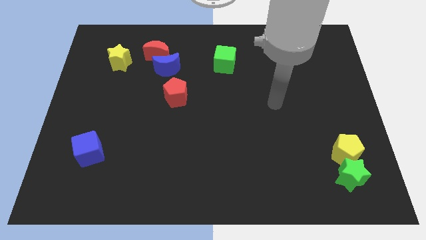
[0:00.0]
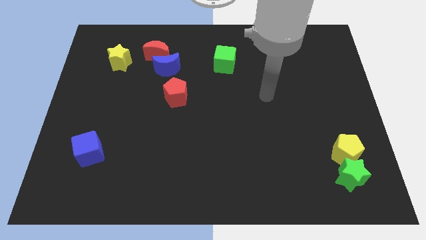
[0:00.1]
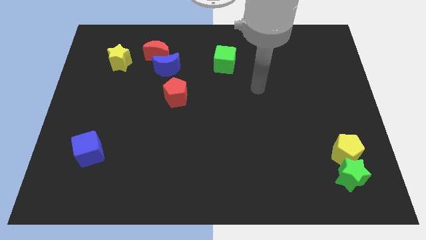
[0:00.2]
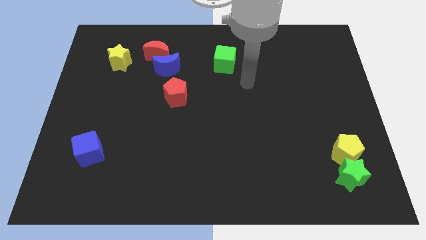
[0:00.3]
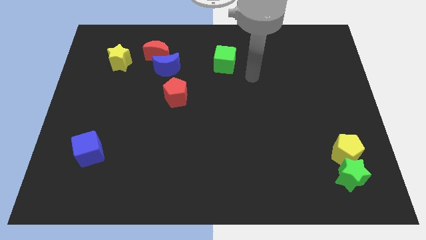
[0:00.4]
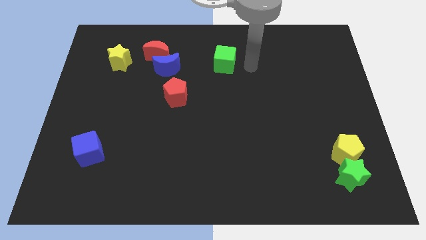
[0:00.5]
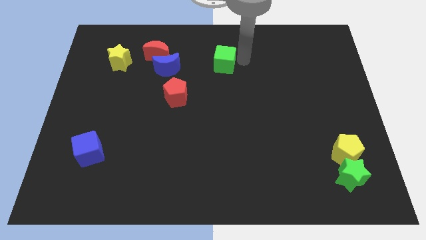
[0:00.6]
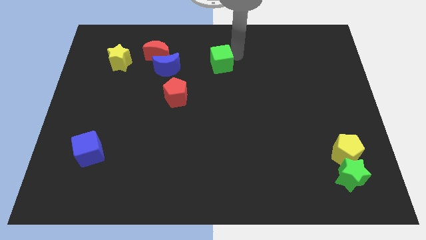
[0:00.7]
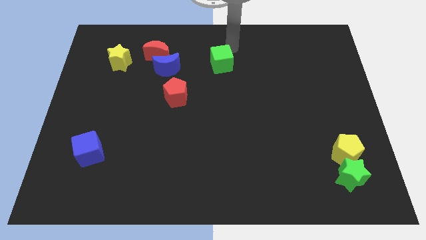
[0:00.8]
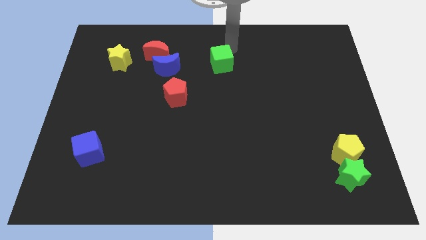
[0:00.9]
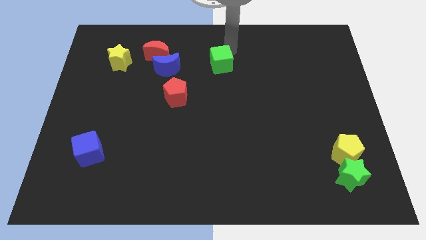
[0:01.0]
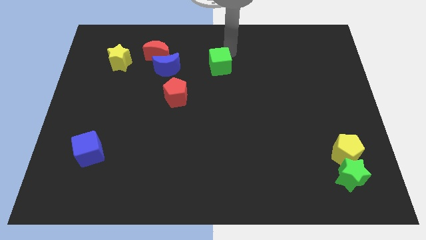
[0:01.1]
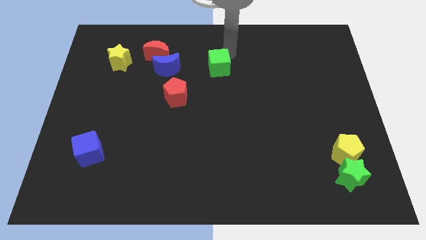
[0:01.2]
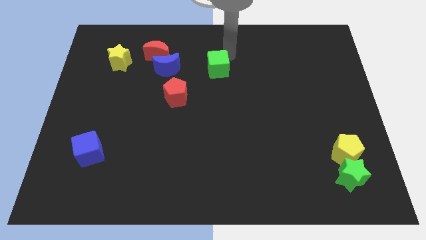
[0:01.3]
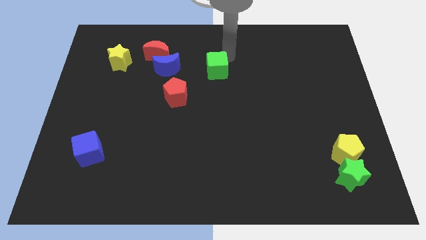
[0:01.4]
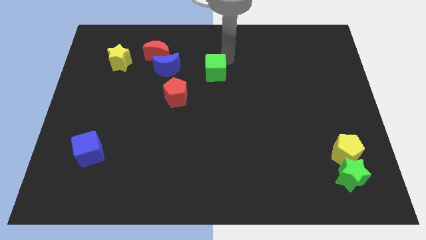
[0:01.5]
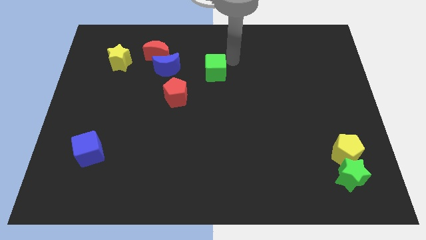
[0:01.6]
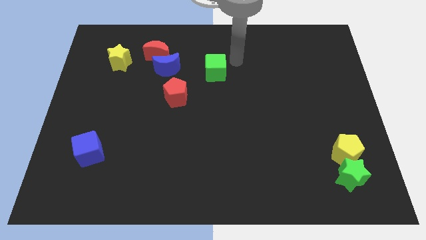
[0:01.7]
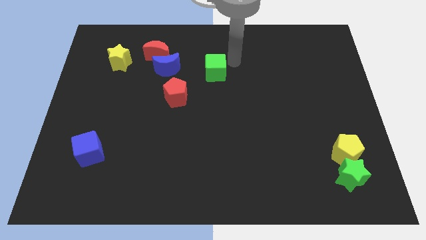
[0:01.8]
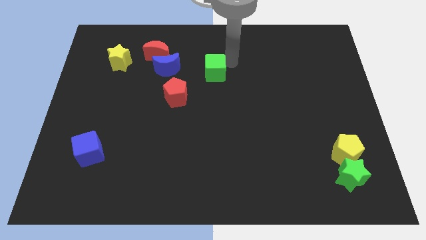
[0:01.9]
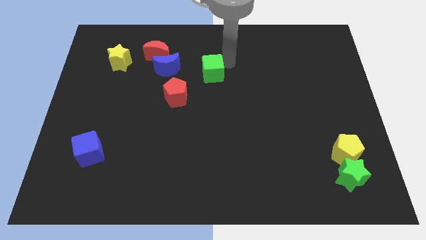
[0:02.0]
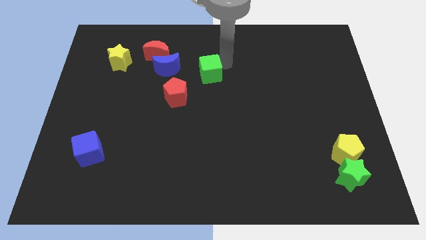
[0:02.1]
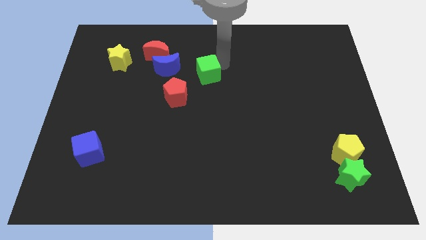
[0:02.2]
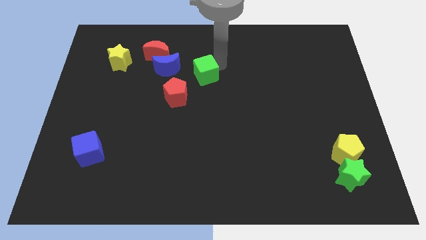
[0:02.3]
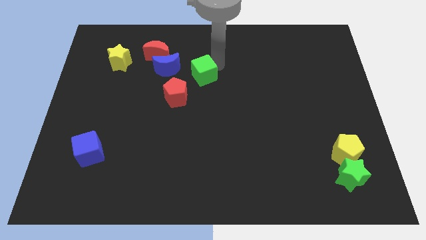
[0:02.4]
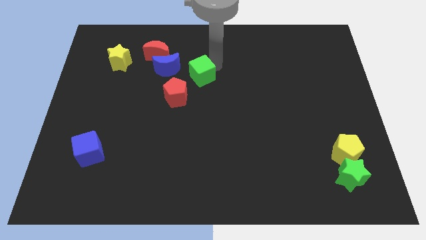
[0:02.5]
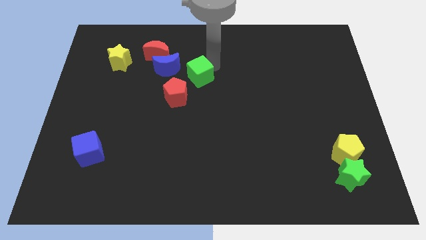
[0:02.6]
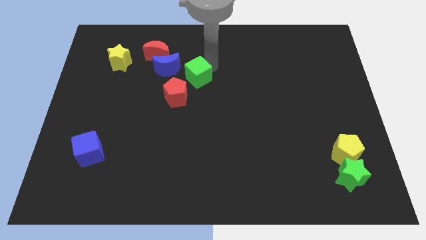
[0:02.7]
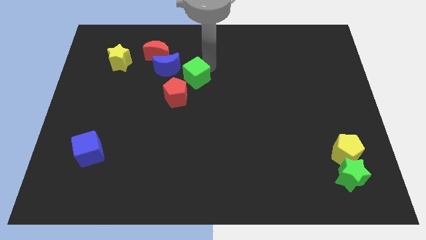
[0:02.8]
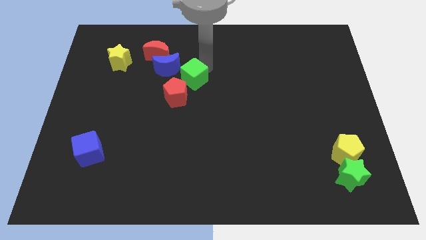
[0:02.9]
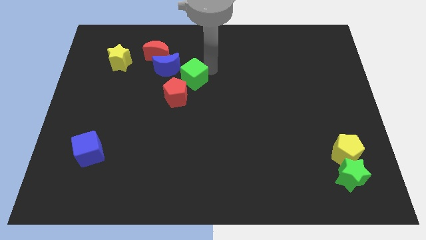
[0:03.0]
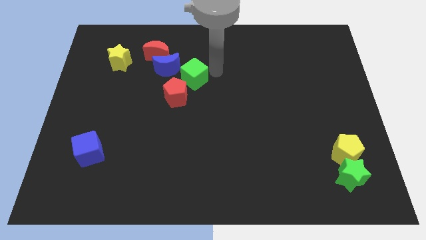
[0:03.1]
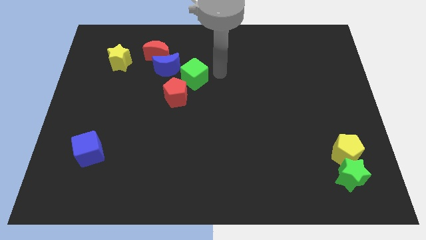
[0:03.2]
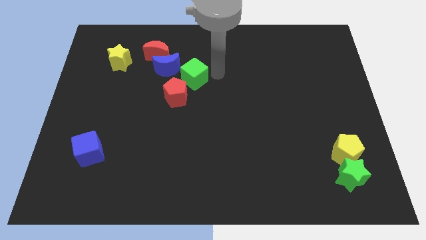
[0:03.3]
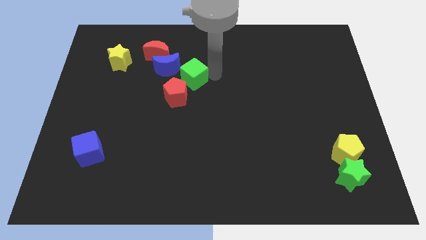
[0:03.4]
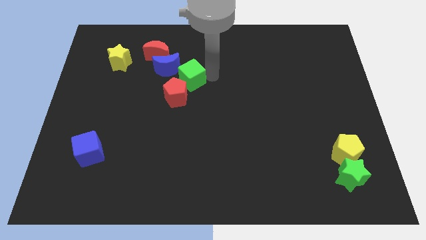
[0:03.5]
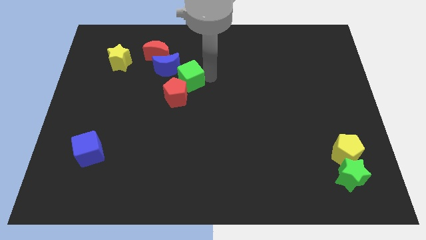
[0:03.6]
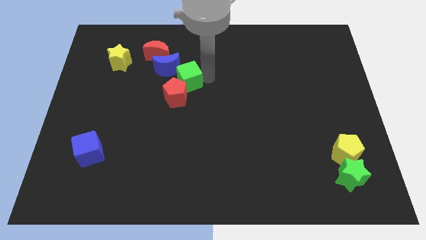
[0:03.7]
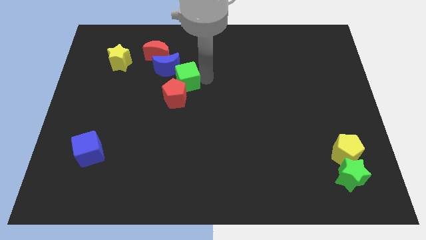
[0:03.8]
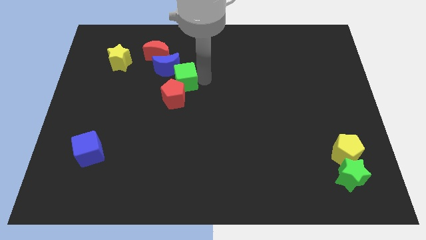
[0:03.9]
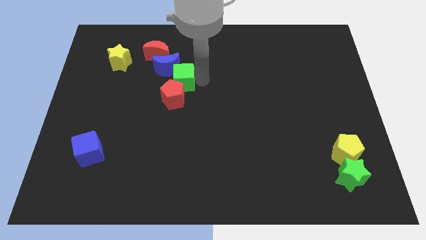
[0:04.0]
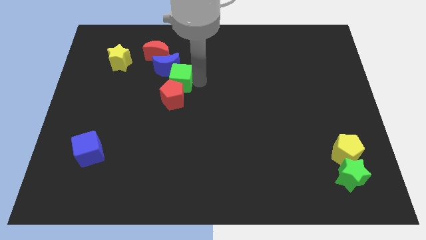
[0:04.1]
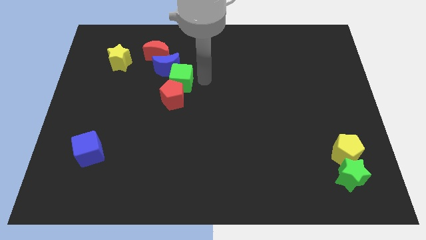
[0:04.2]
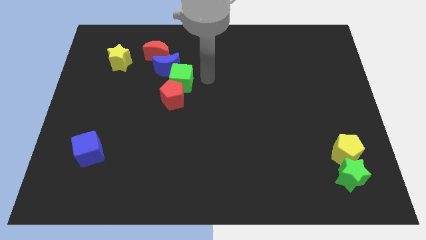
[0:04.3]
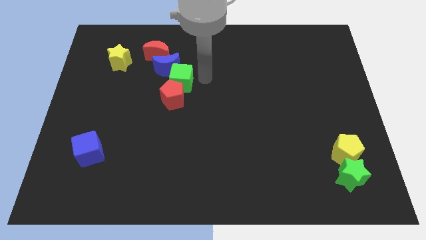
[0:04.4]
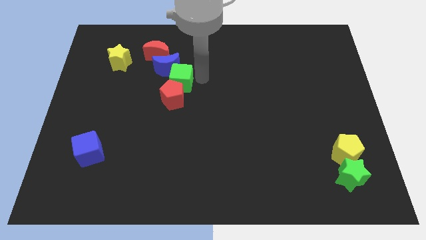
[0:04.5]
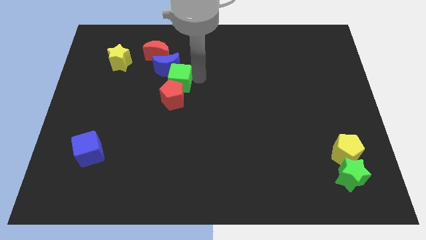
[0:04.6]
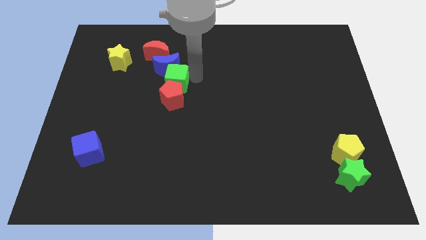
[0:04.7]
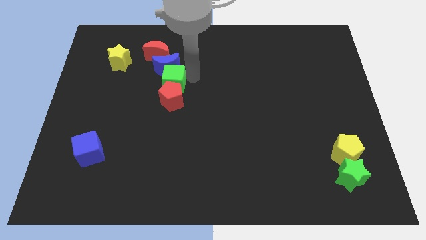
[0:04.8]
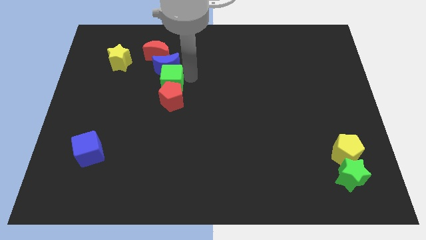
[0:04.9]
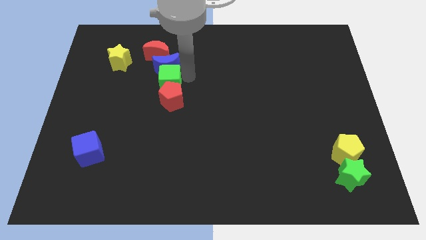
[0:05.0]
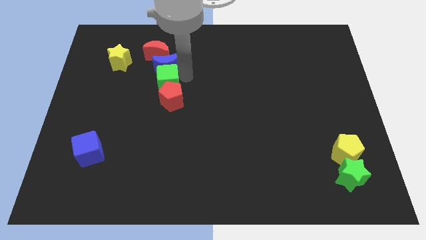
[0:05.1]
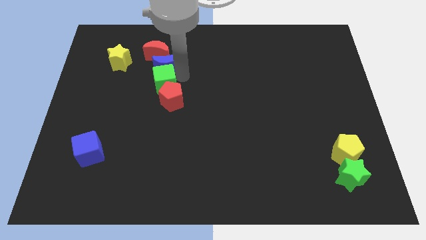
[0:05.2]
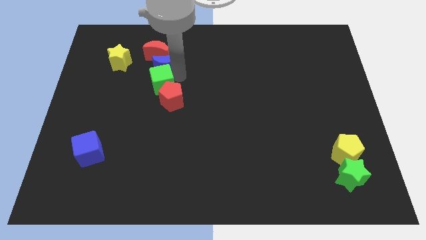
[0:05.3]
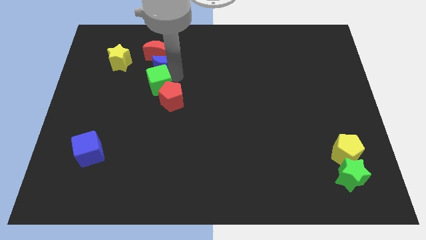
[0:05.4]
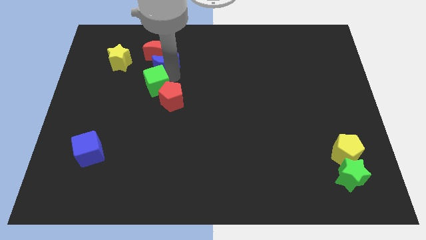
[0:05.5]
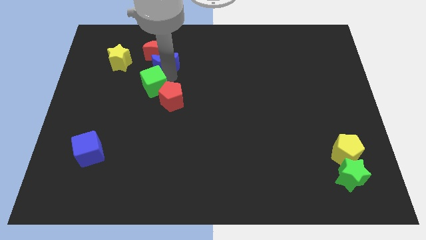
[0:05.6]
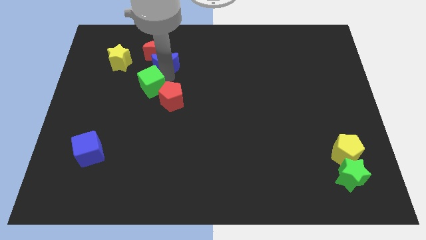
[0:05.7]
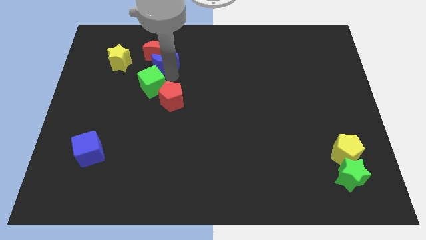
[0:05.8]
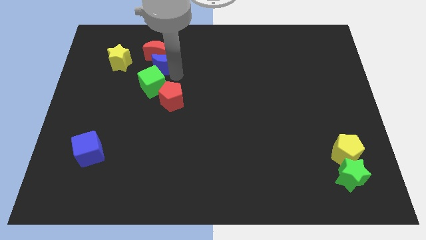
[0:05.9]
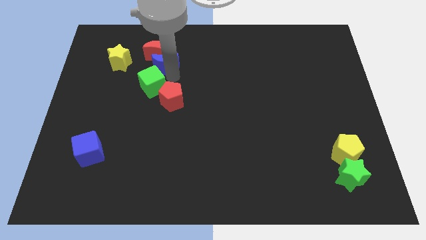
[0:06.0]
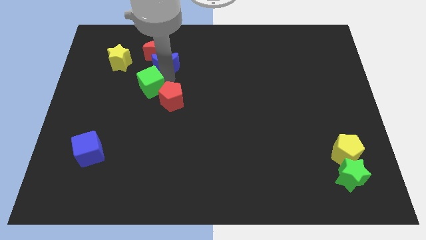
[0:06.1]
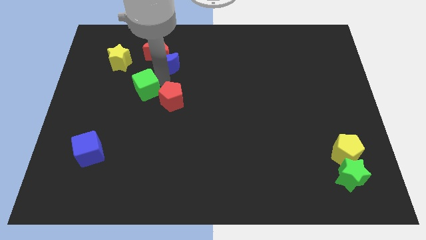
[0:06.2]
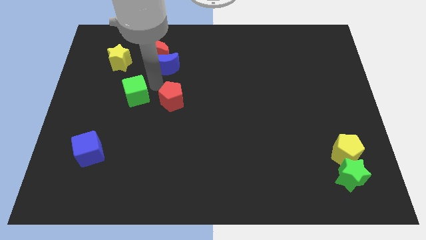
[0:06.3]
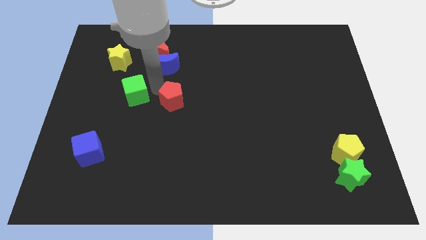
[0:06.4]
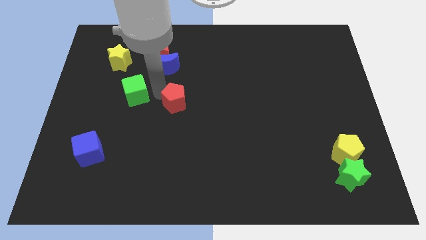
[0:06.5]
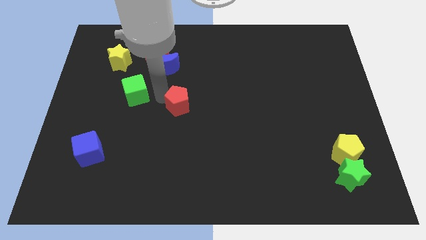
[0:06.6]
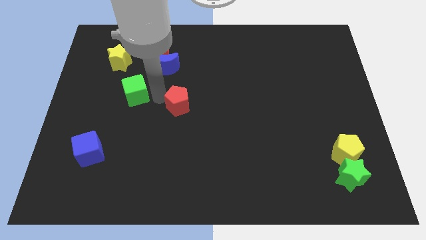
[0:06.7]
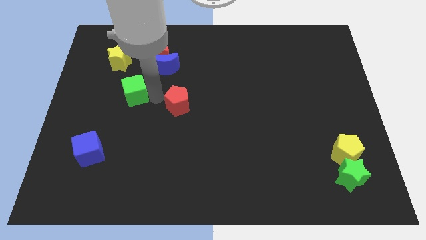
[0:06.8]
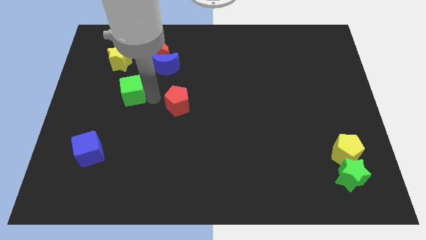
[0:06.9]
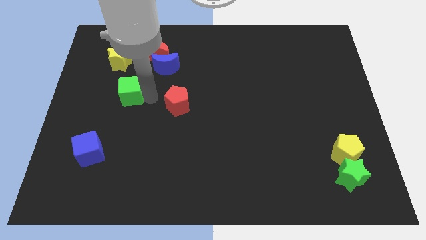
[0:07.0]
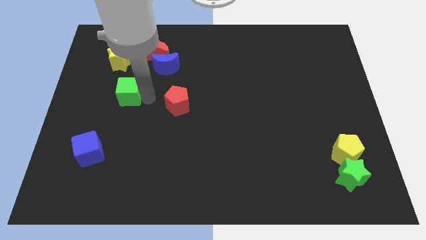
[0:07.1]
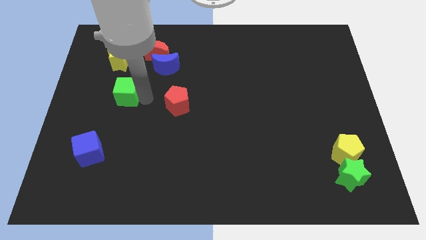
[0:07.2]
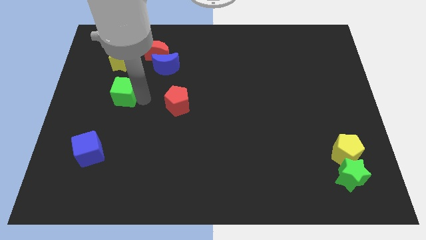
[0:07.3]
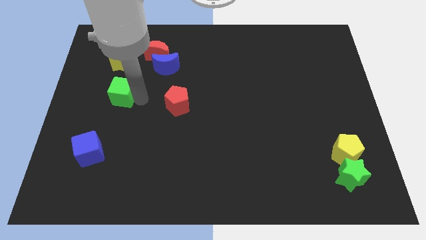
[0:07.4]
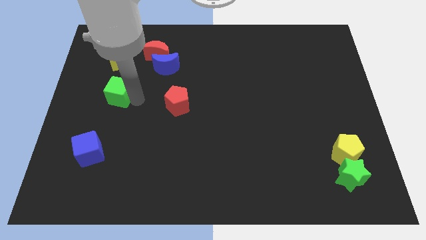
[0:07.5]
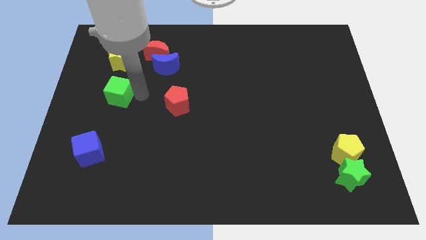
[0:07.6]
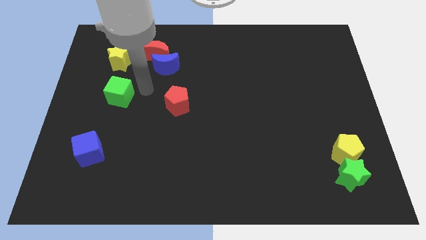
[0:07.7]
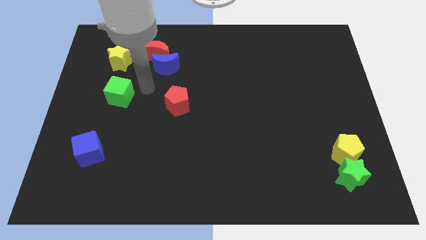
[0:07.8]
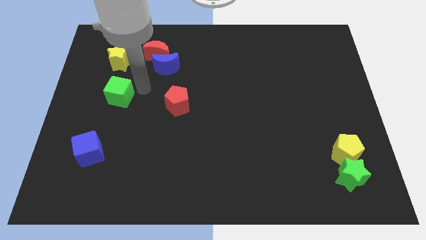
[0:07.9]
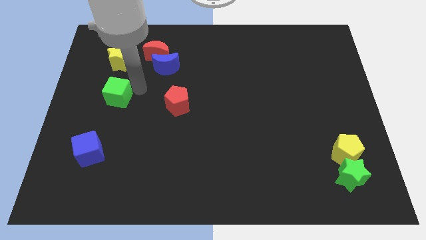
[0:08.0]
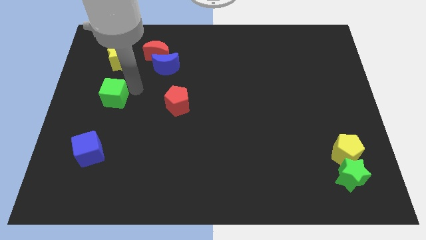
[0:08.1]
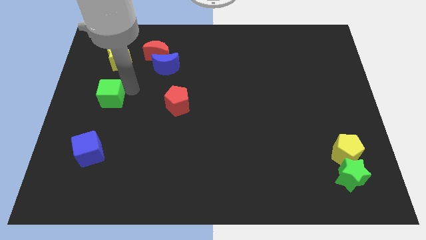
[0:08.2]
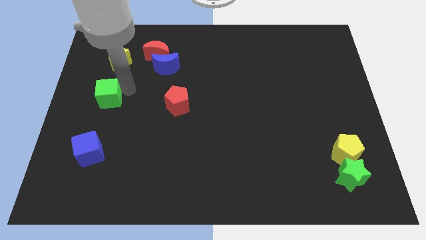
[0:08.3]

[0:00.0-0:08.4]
push the green cube to the left side
